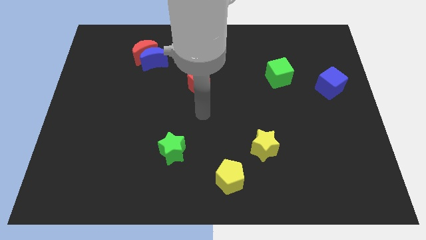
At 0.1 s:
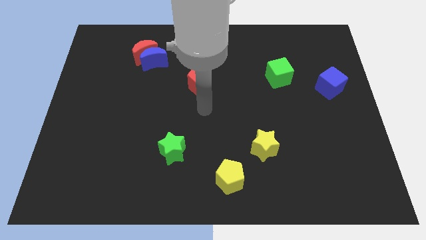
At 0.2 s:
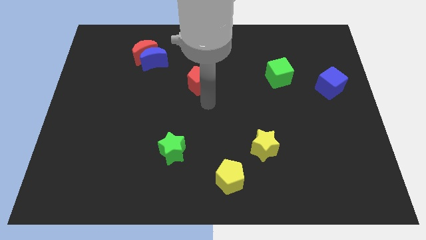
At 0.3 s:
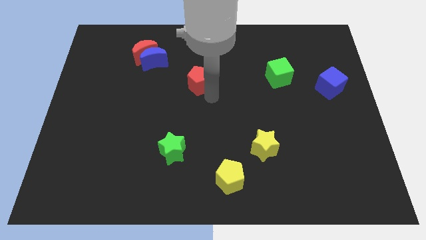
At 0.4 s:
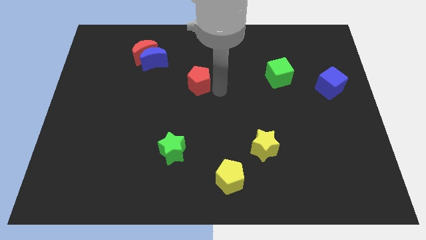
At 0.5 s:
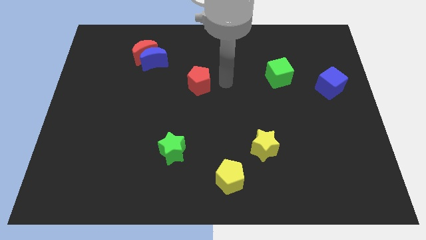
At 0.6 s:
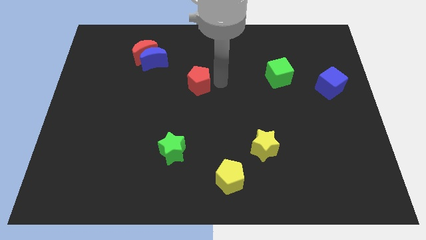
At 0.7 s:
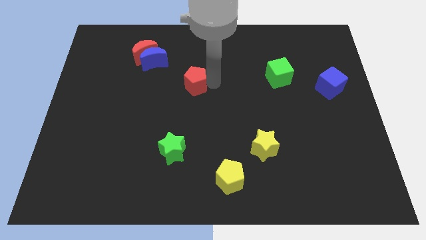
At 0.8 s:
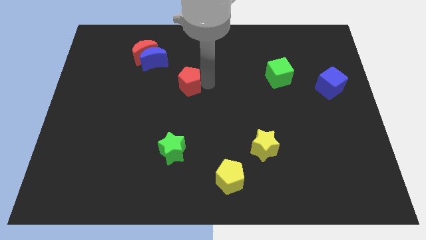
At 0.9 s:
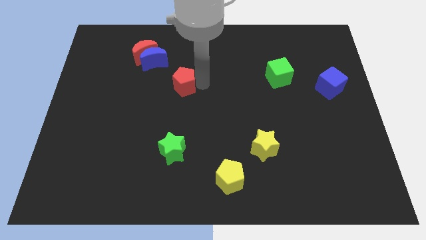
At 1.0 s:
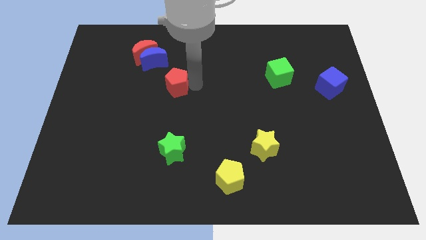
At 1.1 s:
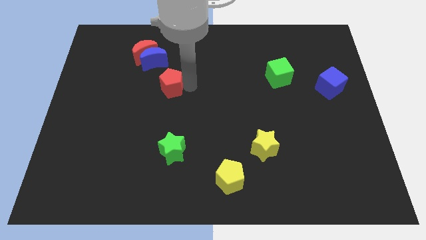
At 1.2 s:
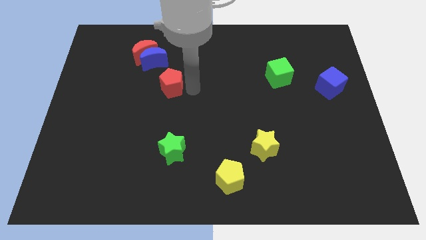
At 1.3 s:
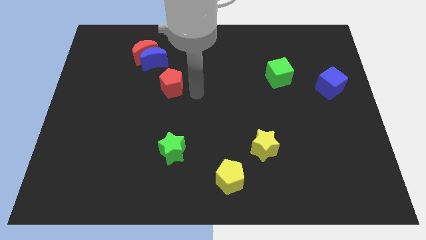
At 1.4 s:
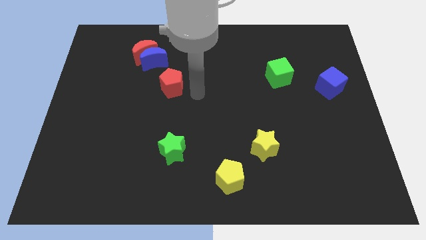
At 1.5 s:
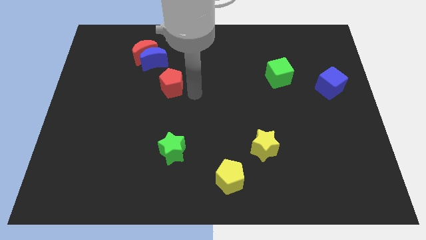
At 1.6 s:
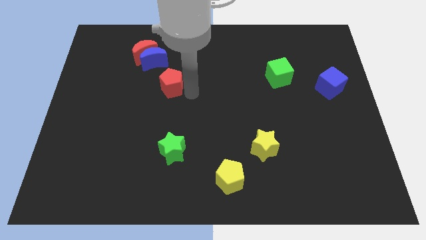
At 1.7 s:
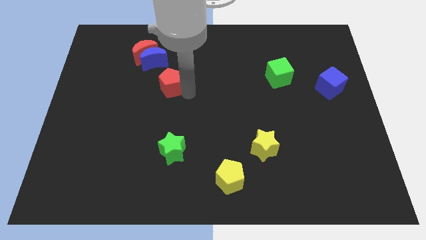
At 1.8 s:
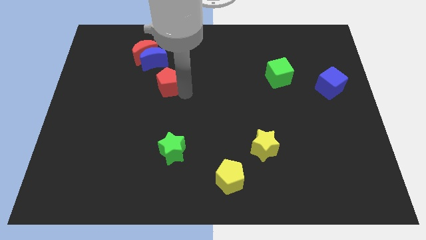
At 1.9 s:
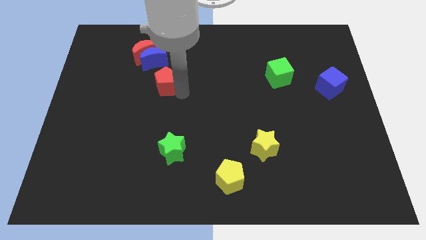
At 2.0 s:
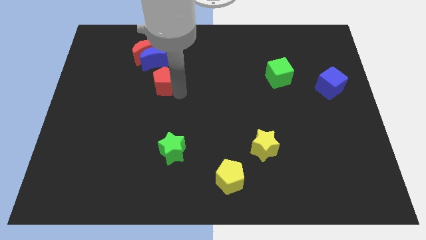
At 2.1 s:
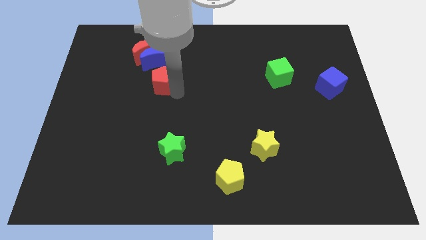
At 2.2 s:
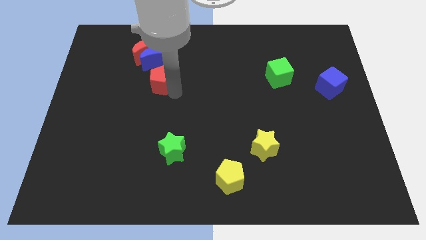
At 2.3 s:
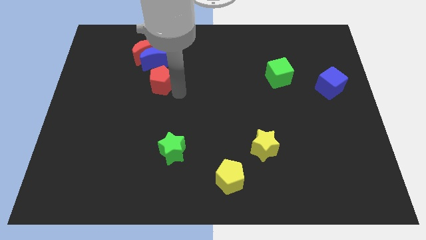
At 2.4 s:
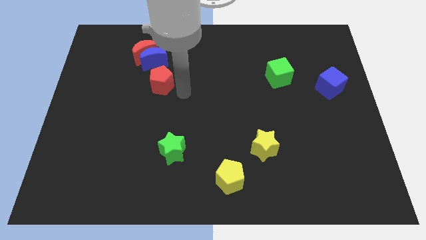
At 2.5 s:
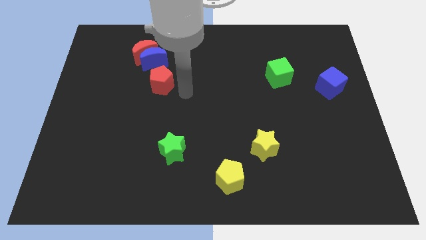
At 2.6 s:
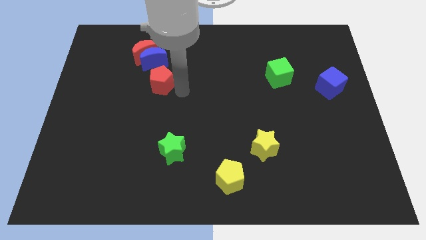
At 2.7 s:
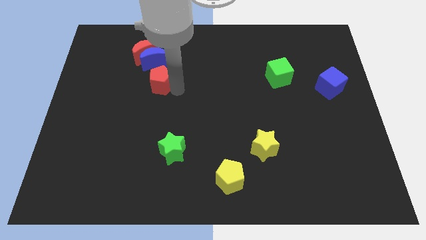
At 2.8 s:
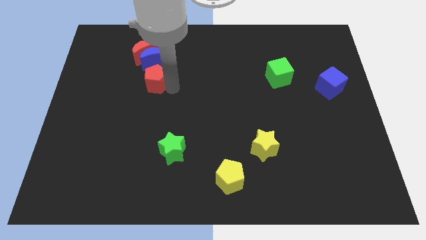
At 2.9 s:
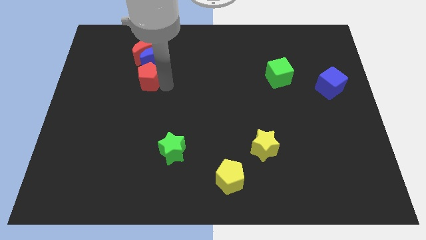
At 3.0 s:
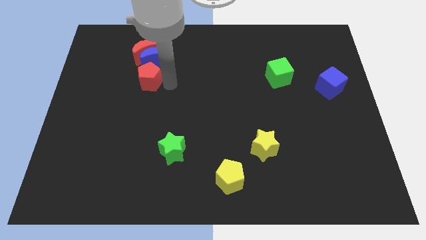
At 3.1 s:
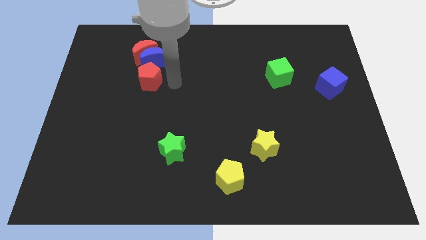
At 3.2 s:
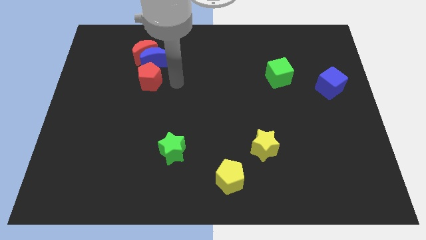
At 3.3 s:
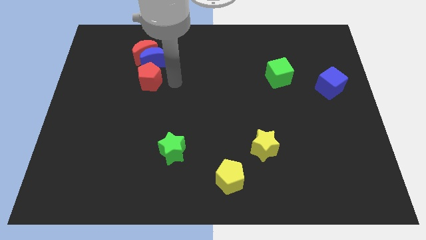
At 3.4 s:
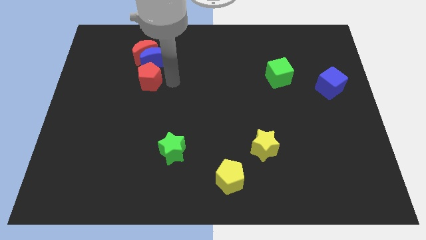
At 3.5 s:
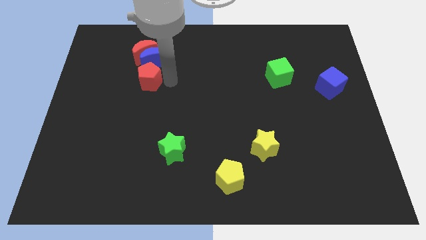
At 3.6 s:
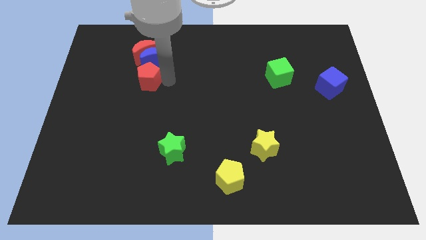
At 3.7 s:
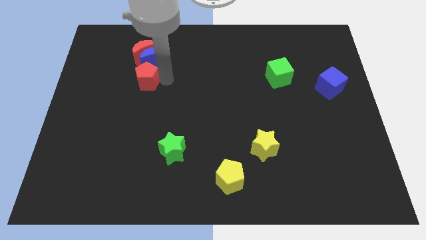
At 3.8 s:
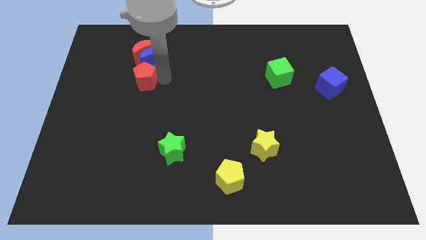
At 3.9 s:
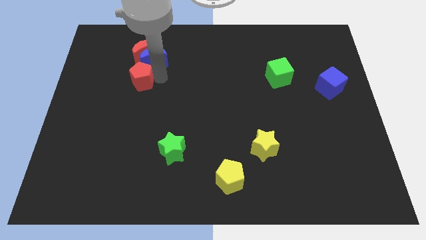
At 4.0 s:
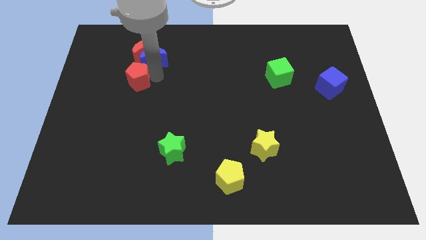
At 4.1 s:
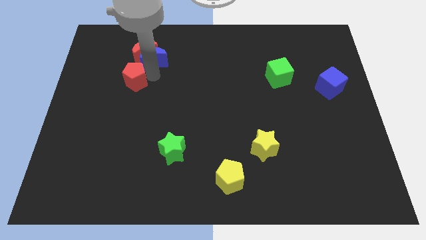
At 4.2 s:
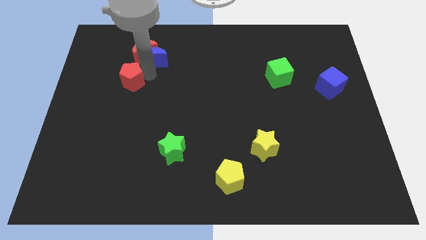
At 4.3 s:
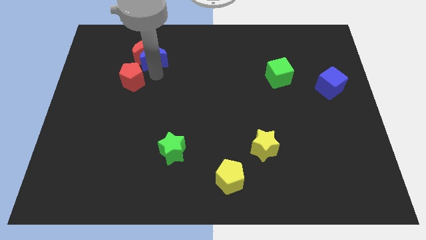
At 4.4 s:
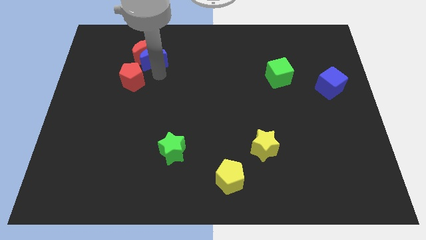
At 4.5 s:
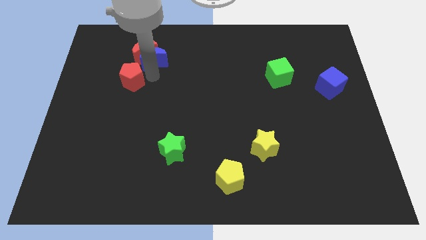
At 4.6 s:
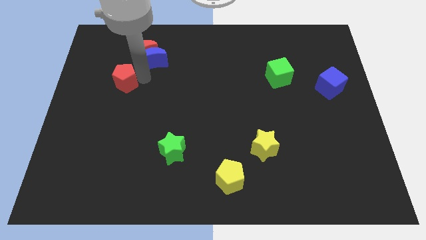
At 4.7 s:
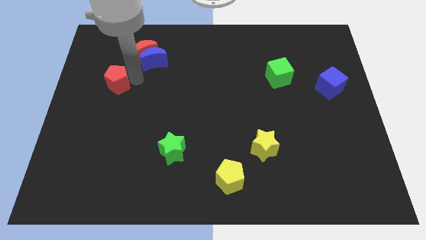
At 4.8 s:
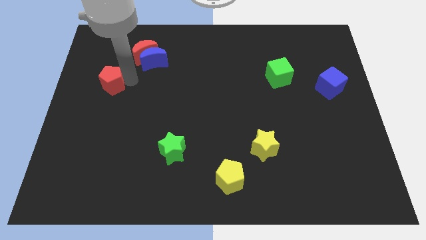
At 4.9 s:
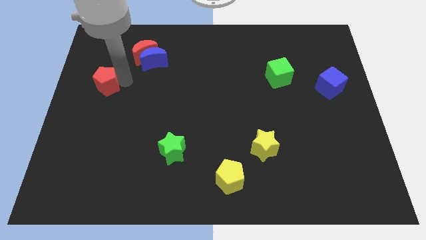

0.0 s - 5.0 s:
push the red pentagon to the center left

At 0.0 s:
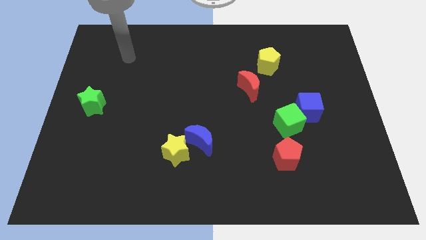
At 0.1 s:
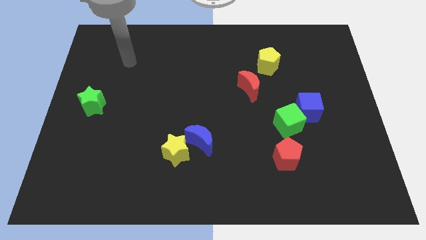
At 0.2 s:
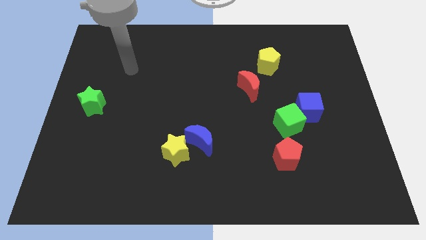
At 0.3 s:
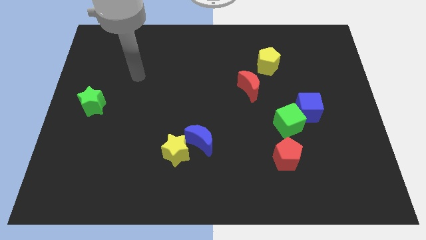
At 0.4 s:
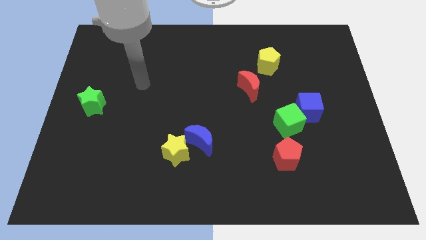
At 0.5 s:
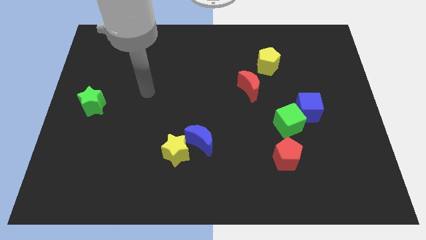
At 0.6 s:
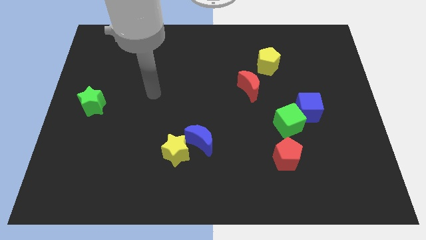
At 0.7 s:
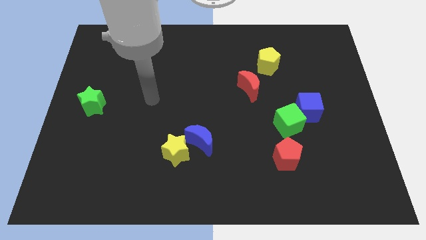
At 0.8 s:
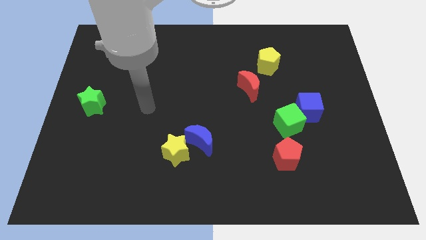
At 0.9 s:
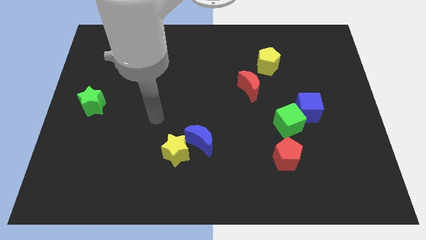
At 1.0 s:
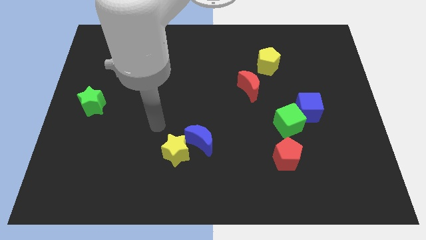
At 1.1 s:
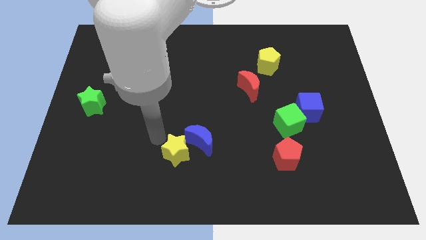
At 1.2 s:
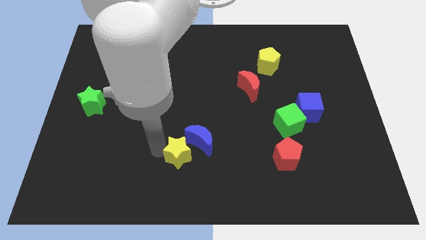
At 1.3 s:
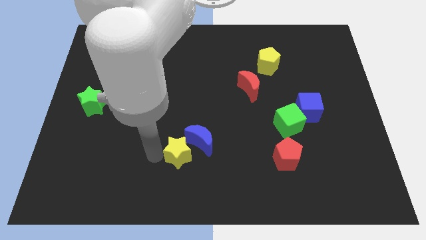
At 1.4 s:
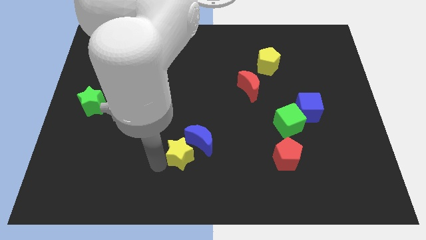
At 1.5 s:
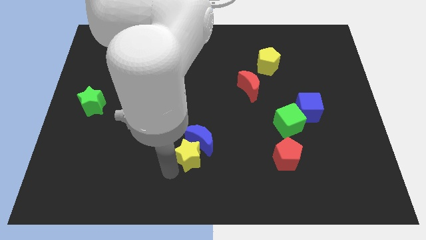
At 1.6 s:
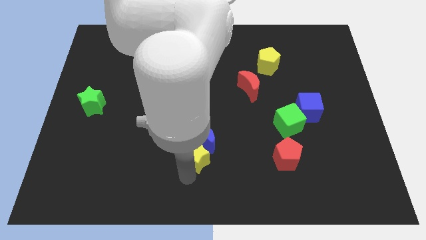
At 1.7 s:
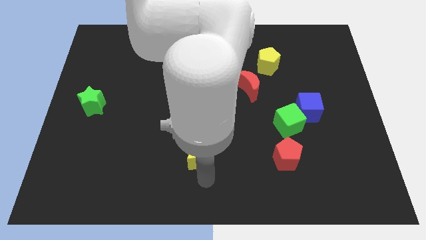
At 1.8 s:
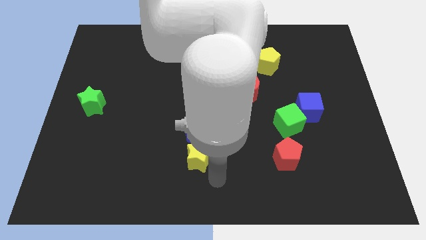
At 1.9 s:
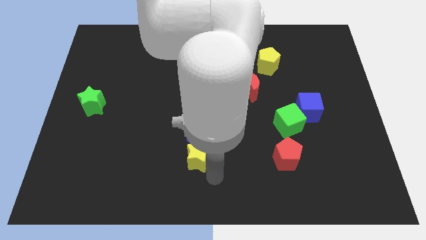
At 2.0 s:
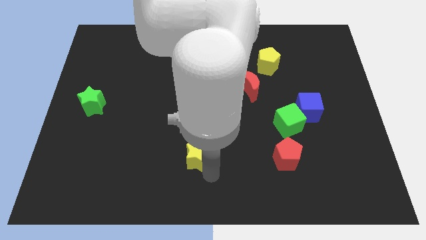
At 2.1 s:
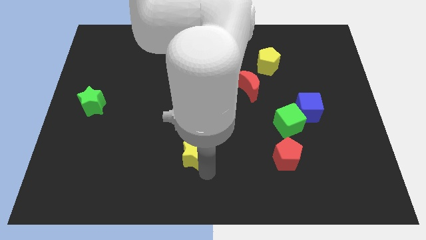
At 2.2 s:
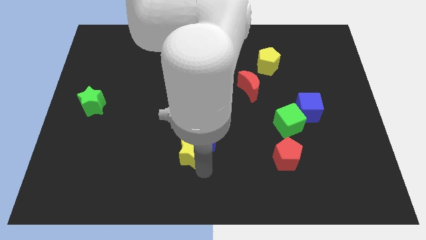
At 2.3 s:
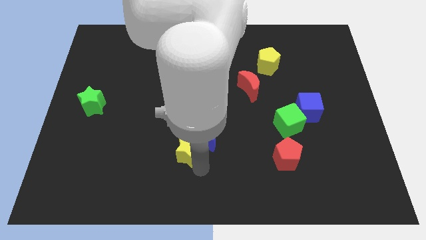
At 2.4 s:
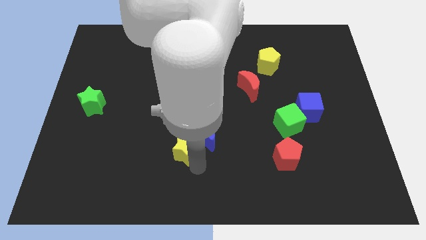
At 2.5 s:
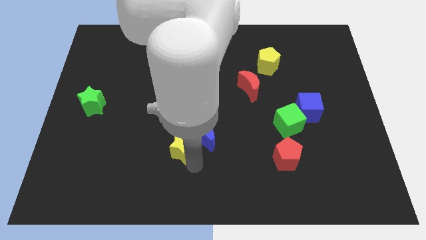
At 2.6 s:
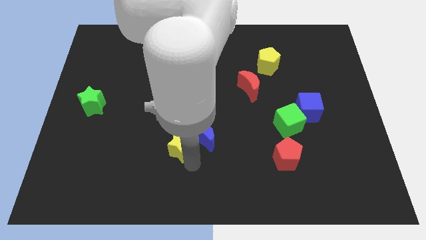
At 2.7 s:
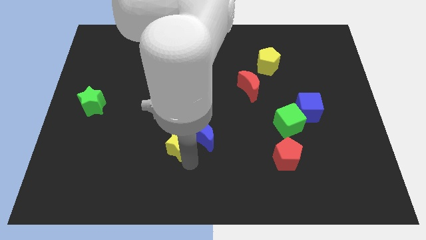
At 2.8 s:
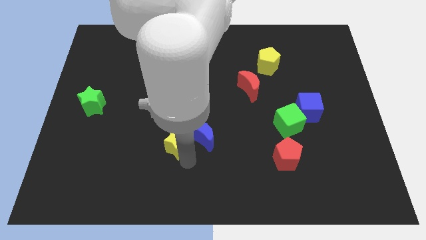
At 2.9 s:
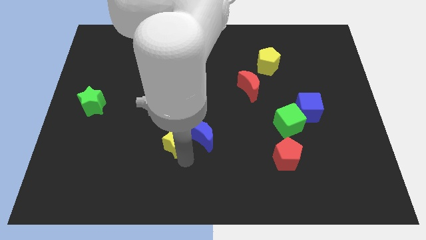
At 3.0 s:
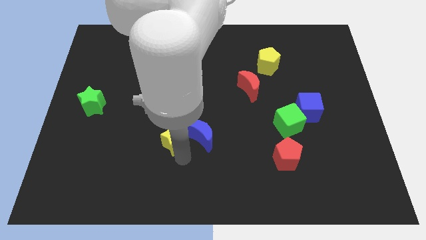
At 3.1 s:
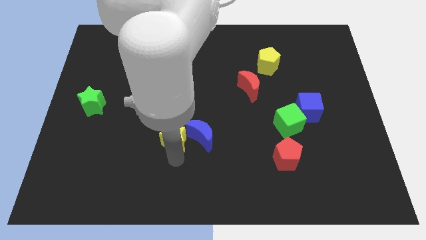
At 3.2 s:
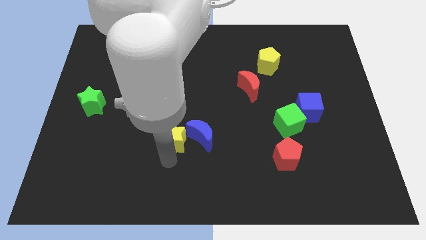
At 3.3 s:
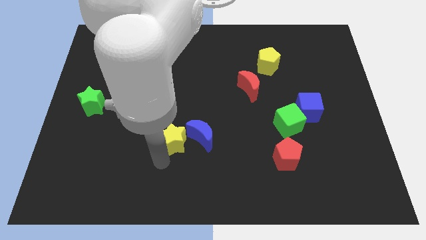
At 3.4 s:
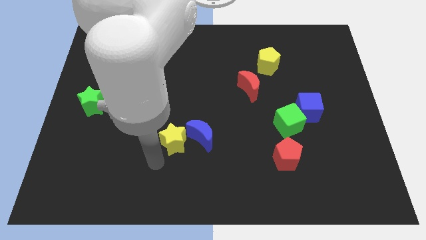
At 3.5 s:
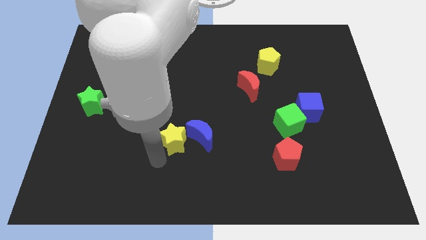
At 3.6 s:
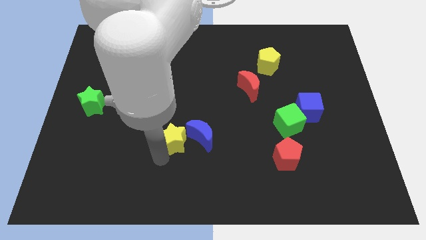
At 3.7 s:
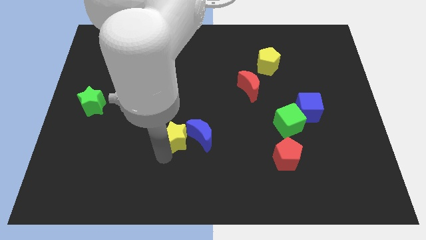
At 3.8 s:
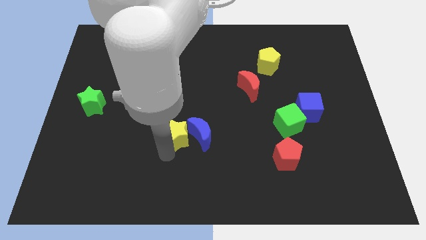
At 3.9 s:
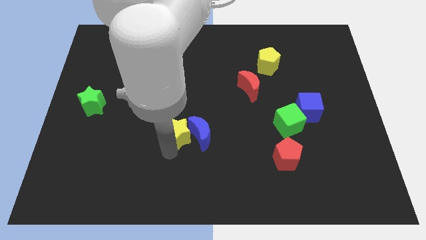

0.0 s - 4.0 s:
move the yellow star to the middle
